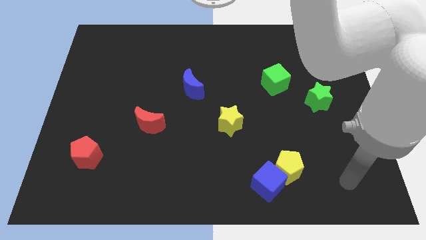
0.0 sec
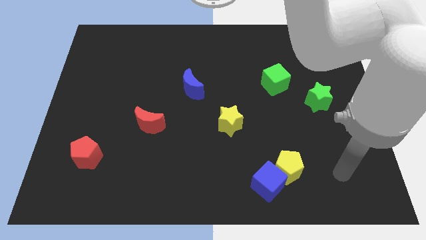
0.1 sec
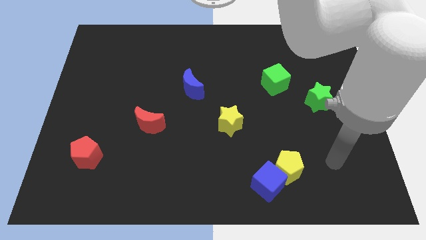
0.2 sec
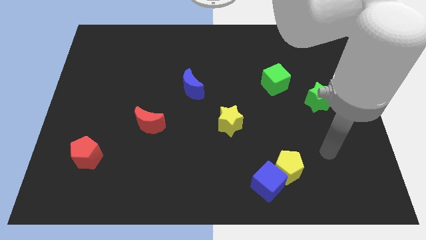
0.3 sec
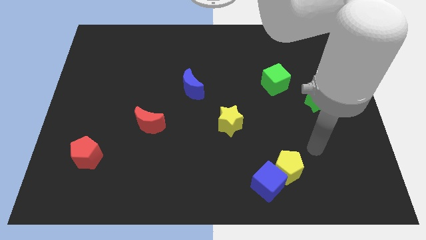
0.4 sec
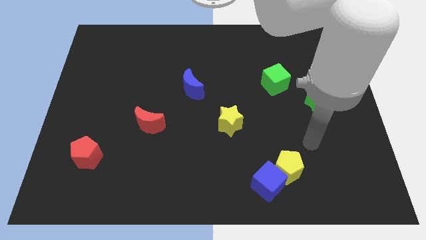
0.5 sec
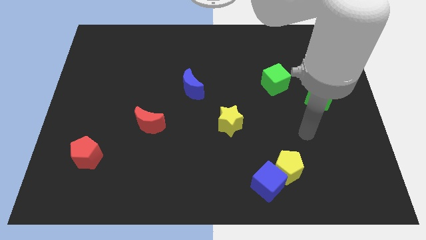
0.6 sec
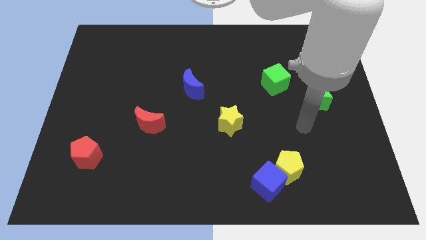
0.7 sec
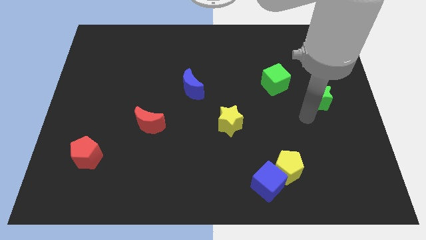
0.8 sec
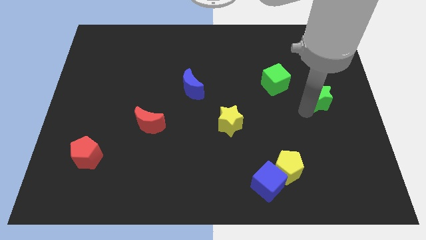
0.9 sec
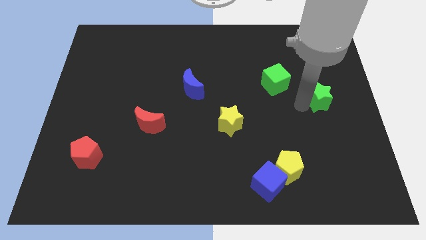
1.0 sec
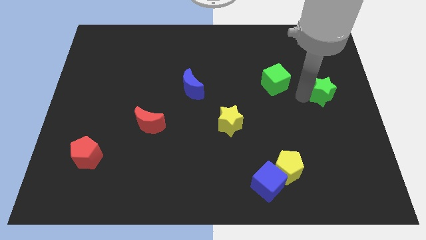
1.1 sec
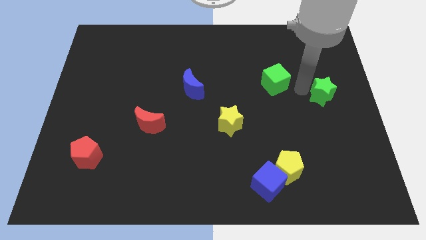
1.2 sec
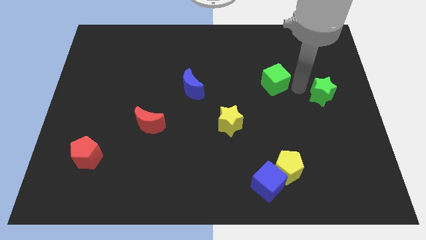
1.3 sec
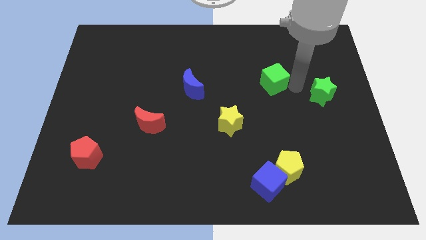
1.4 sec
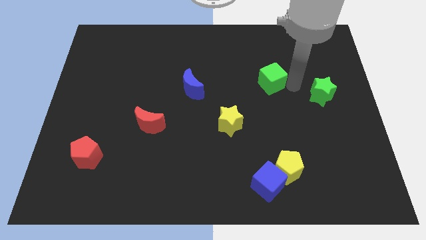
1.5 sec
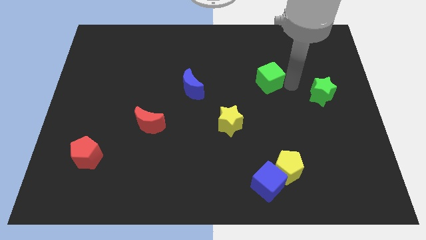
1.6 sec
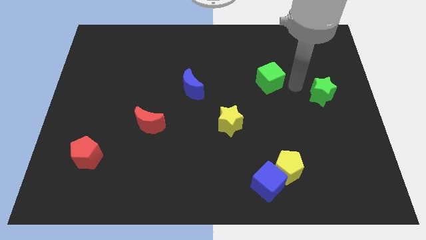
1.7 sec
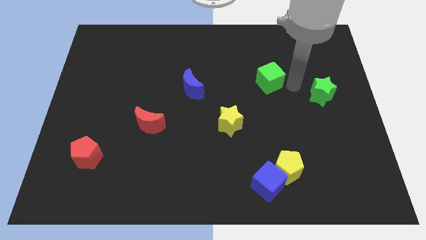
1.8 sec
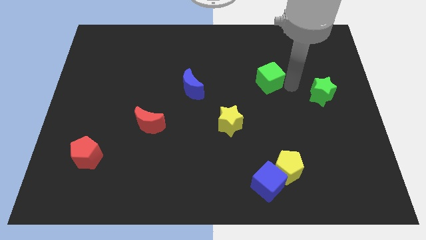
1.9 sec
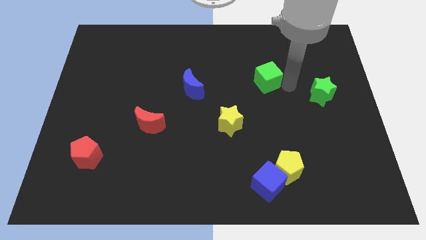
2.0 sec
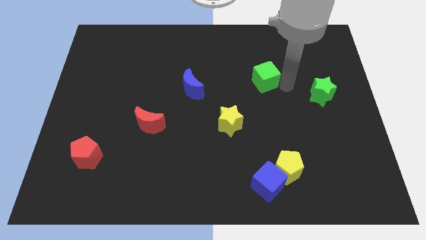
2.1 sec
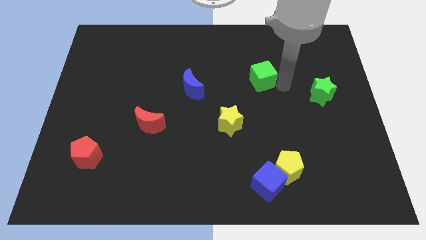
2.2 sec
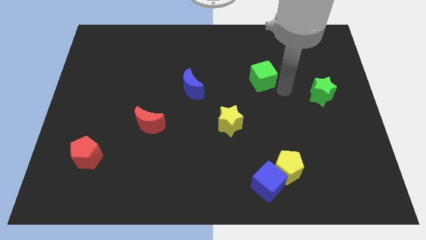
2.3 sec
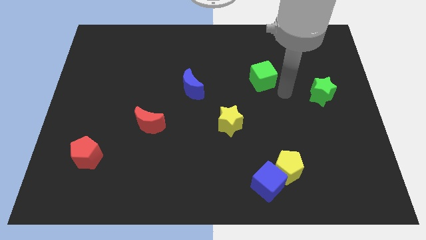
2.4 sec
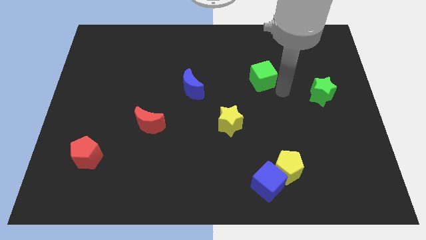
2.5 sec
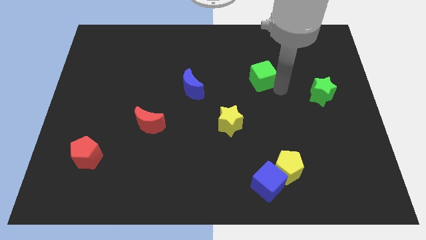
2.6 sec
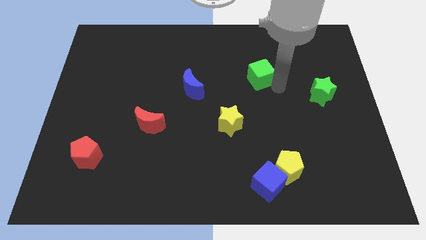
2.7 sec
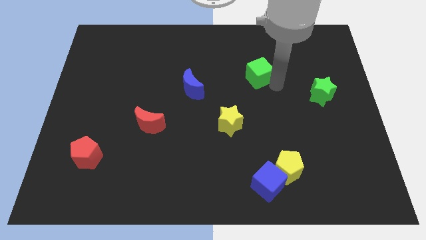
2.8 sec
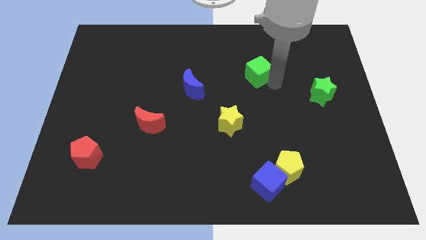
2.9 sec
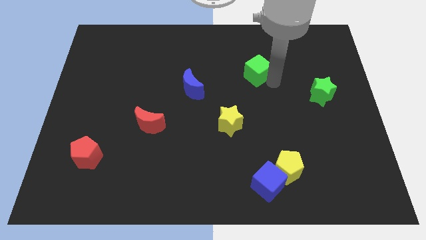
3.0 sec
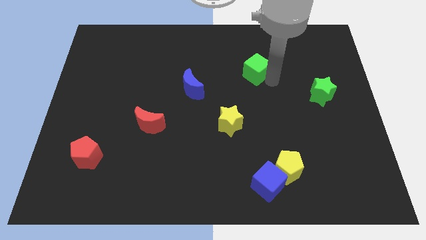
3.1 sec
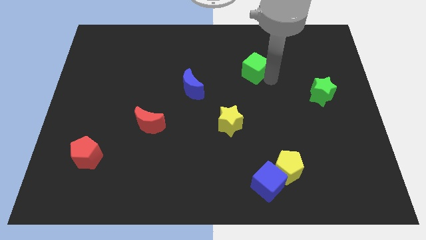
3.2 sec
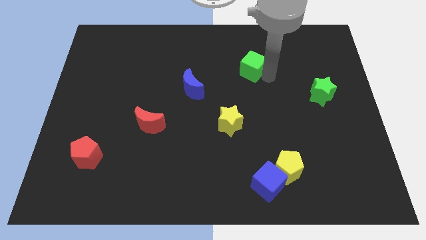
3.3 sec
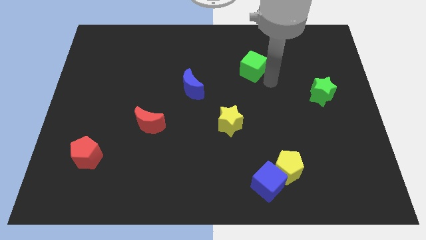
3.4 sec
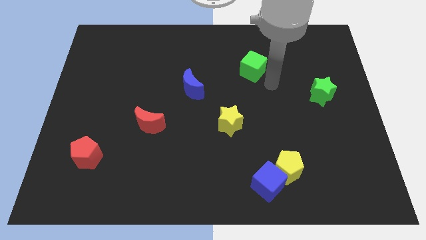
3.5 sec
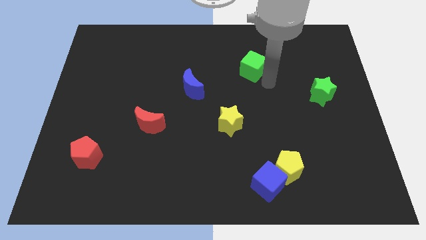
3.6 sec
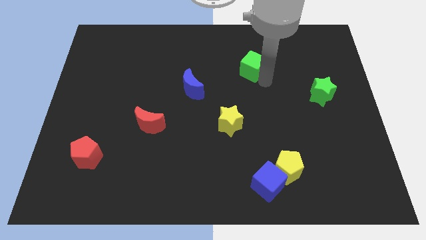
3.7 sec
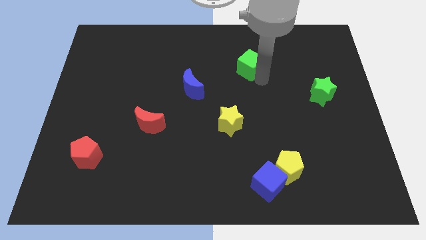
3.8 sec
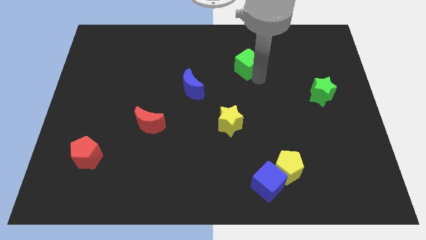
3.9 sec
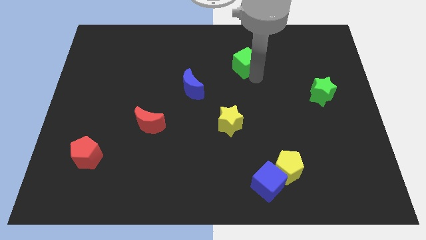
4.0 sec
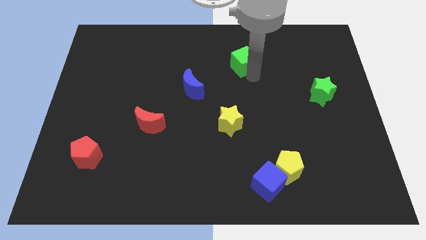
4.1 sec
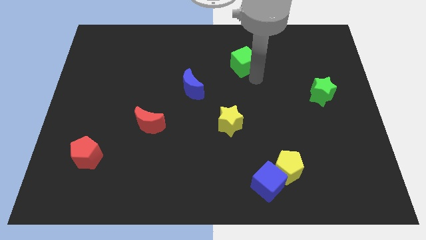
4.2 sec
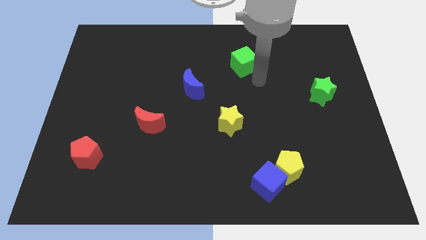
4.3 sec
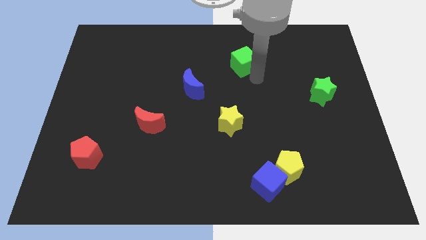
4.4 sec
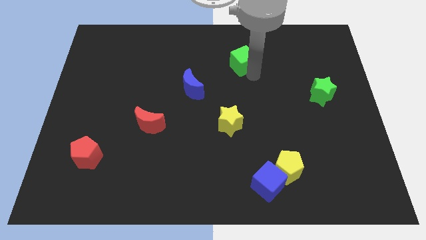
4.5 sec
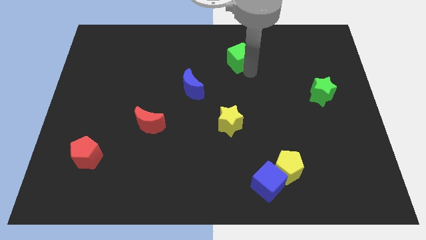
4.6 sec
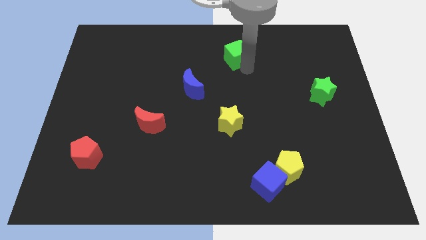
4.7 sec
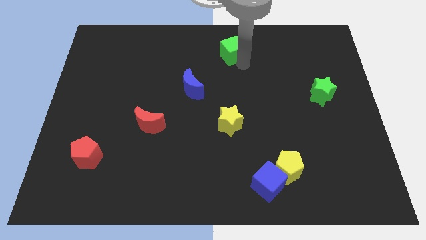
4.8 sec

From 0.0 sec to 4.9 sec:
push the green cube to the towards your base

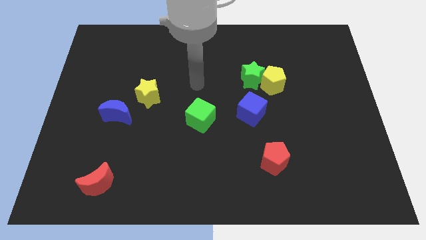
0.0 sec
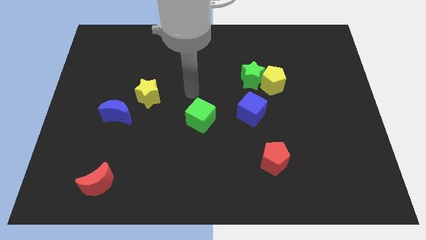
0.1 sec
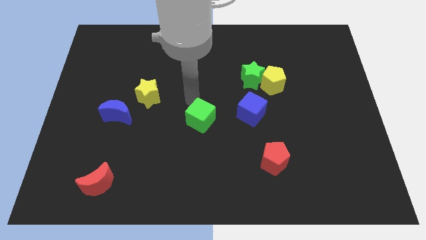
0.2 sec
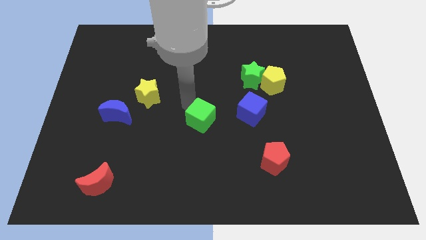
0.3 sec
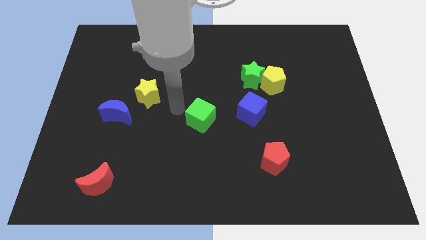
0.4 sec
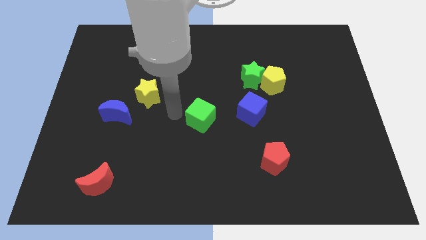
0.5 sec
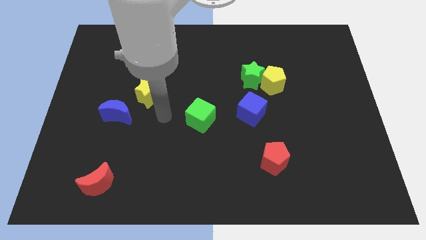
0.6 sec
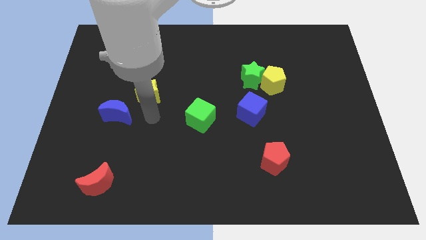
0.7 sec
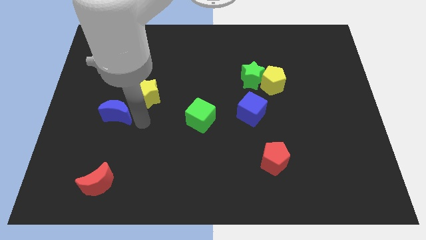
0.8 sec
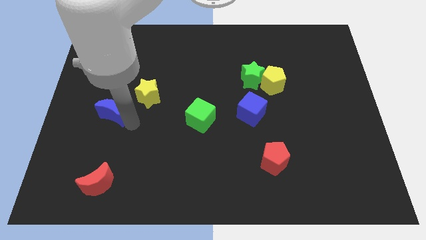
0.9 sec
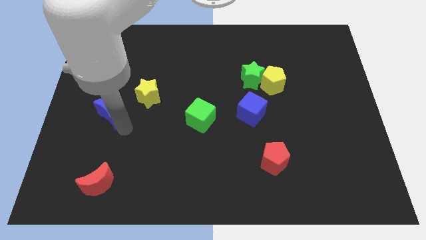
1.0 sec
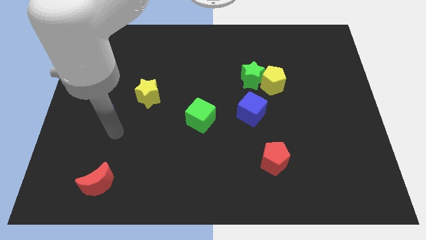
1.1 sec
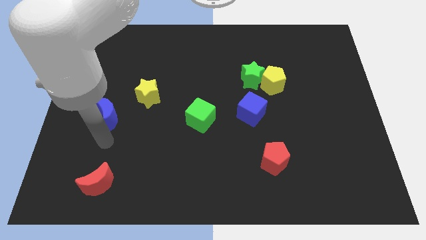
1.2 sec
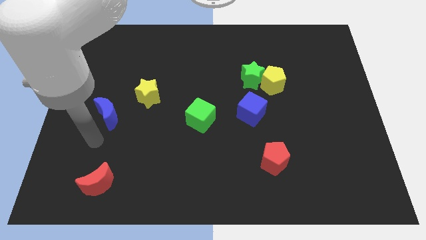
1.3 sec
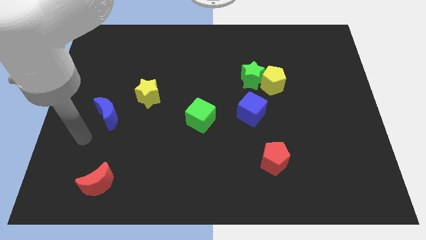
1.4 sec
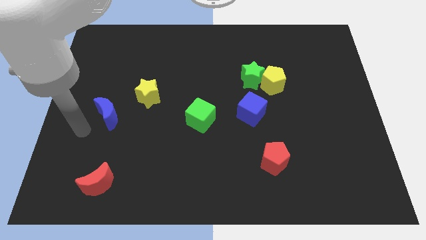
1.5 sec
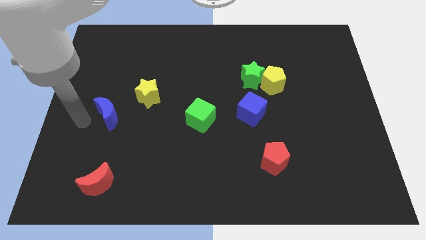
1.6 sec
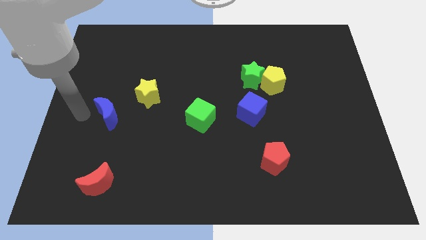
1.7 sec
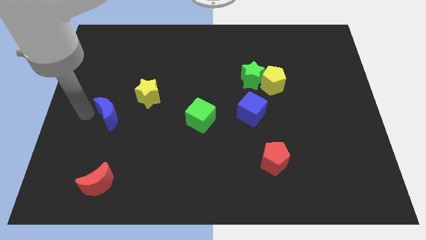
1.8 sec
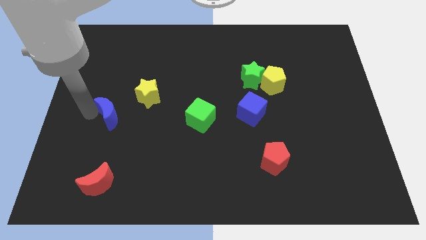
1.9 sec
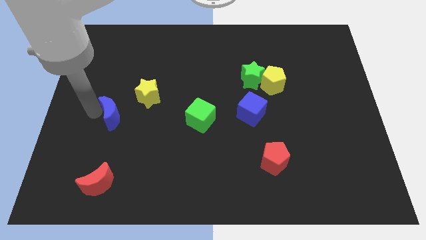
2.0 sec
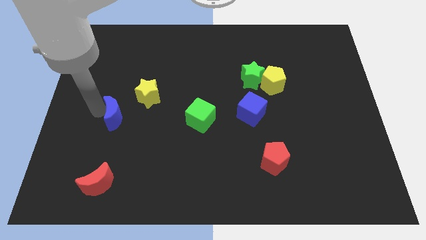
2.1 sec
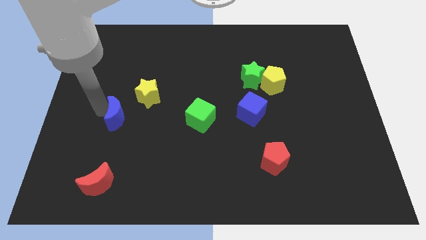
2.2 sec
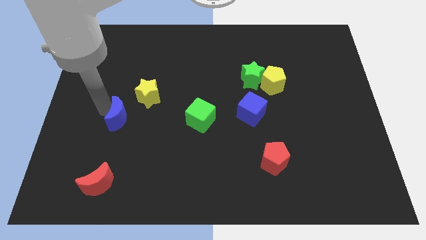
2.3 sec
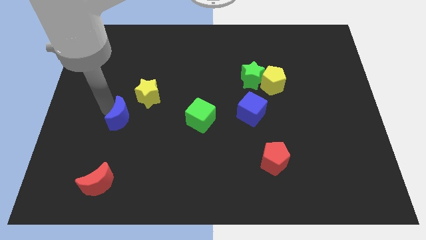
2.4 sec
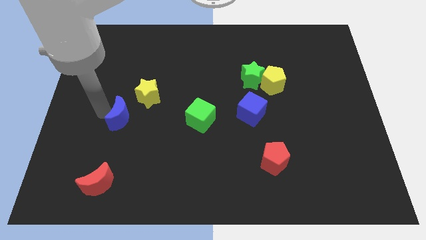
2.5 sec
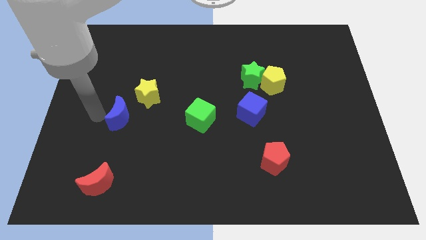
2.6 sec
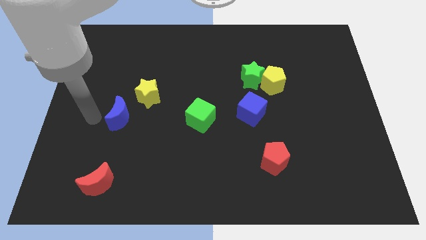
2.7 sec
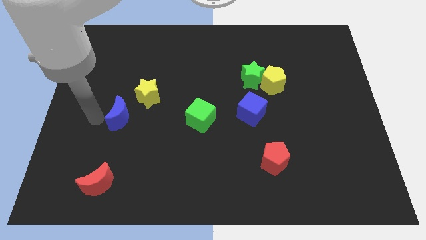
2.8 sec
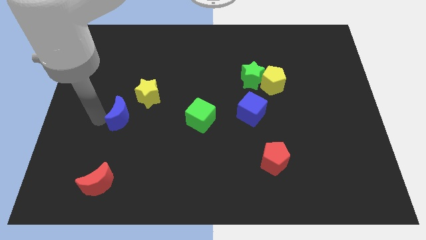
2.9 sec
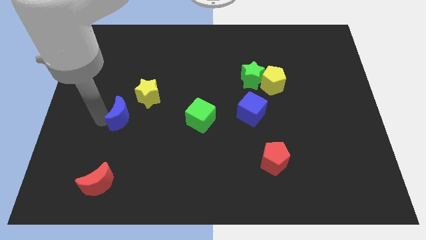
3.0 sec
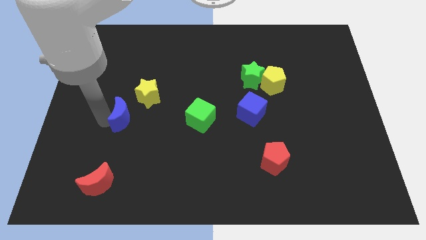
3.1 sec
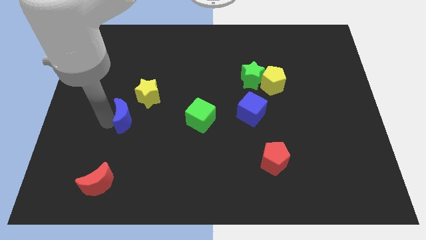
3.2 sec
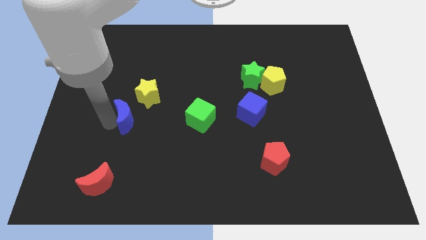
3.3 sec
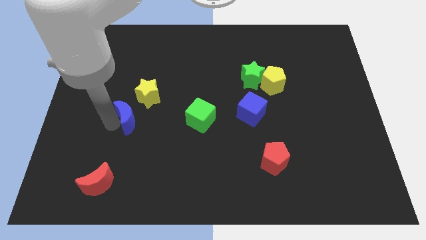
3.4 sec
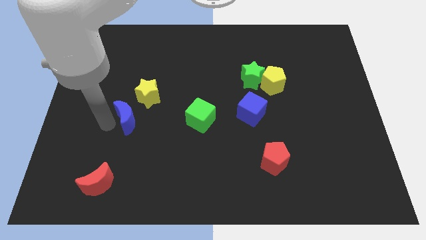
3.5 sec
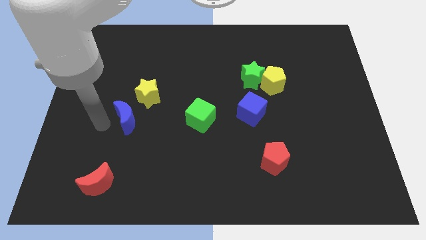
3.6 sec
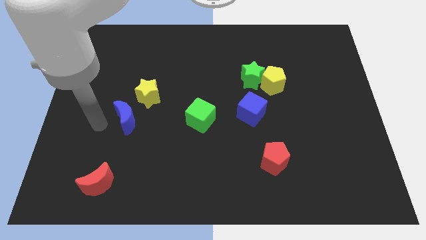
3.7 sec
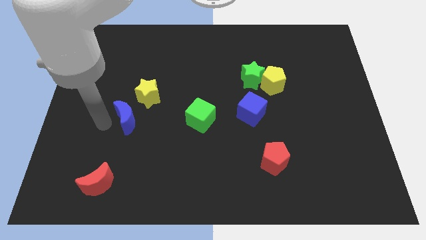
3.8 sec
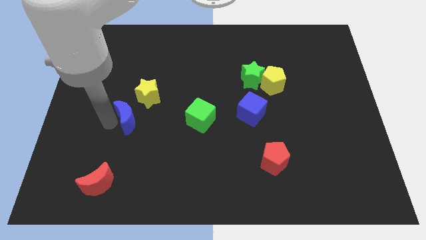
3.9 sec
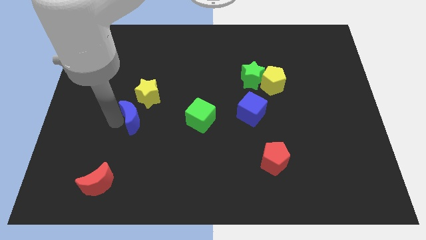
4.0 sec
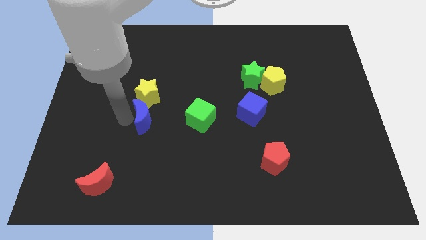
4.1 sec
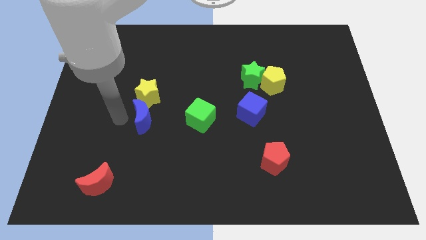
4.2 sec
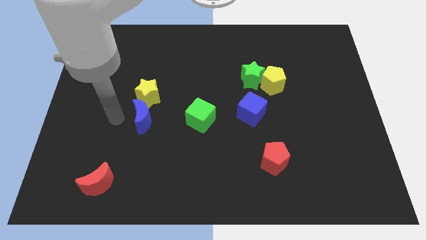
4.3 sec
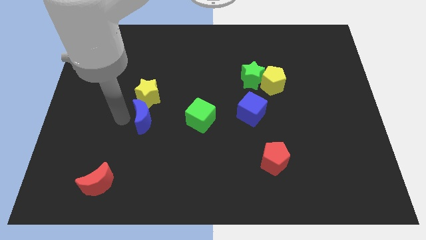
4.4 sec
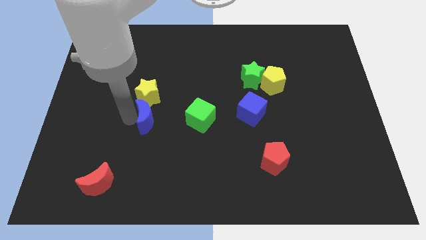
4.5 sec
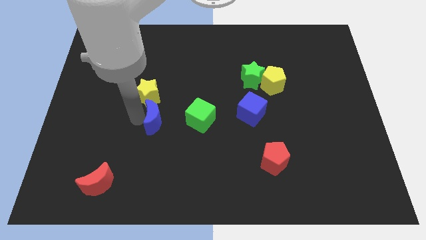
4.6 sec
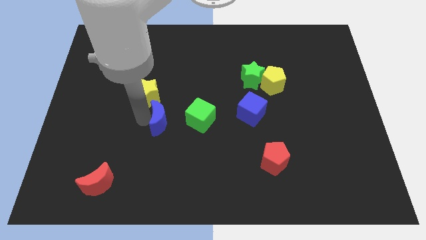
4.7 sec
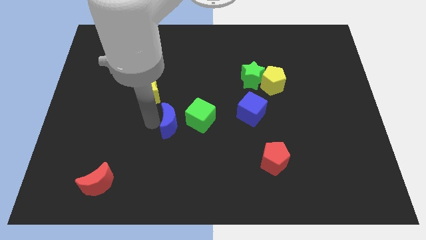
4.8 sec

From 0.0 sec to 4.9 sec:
slide the blue moon to the middle of the board
